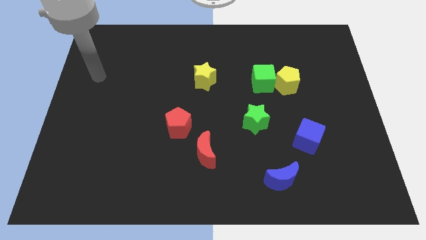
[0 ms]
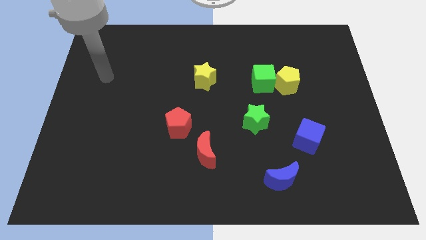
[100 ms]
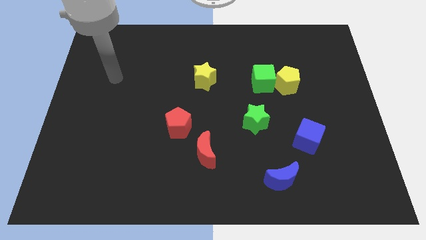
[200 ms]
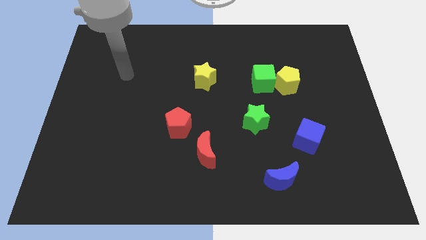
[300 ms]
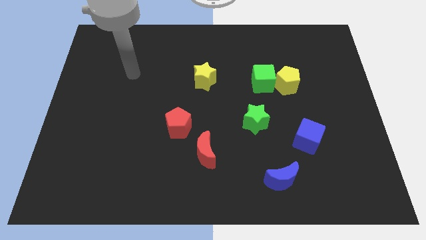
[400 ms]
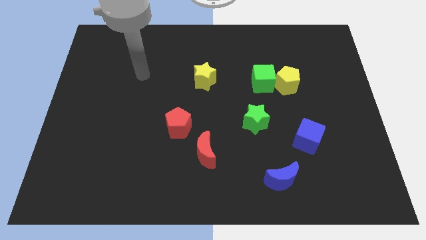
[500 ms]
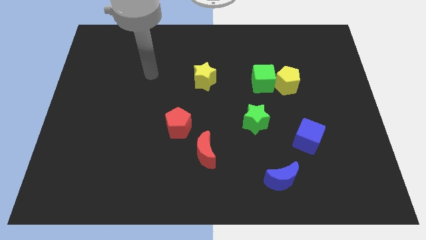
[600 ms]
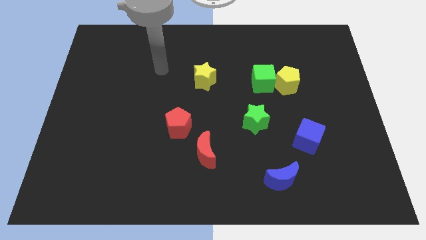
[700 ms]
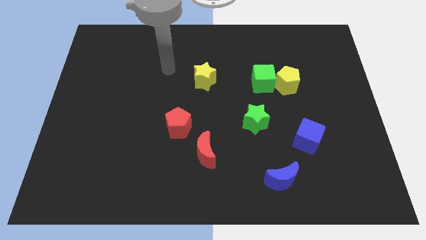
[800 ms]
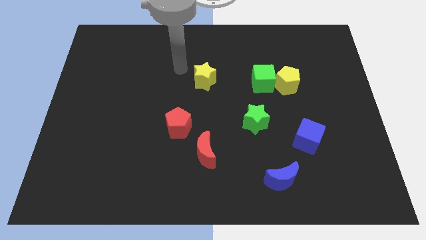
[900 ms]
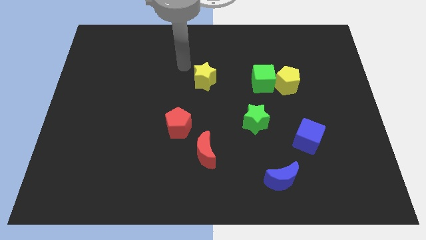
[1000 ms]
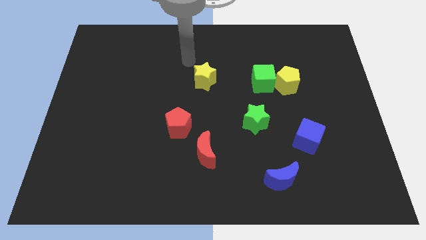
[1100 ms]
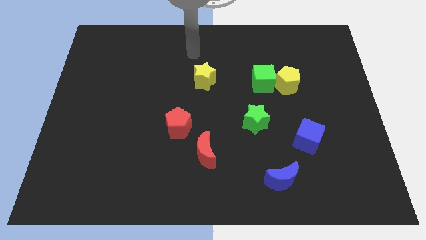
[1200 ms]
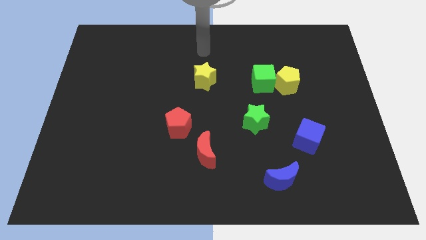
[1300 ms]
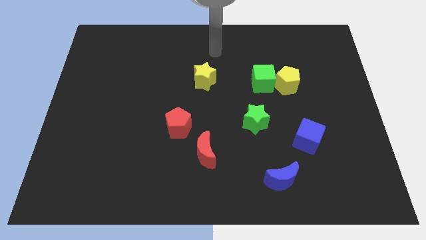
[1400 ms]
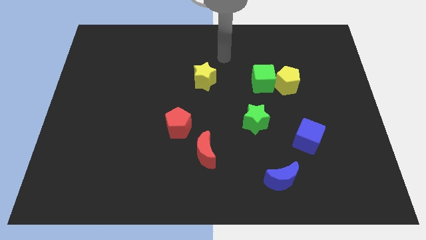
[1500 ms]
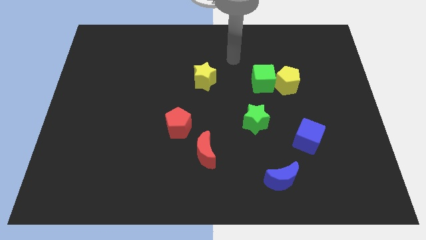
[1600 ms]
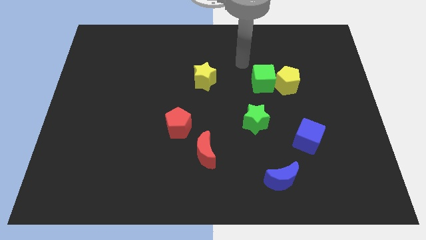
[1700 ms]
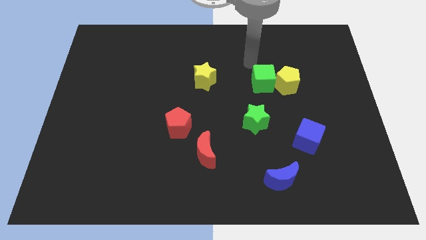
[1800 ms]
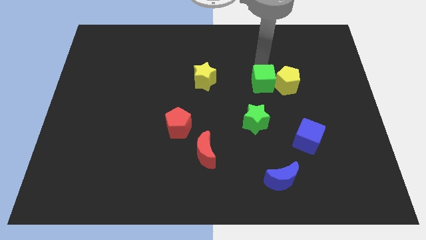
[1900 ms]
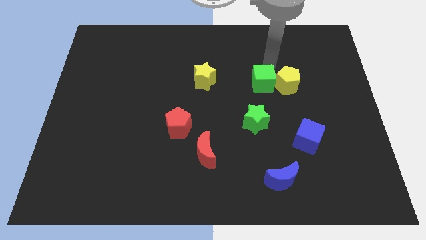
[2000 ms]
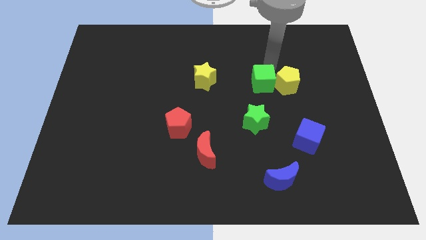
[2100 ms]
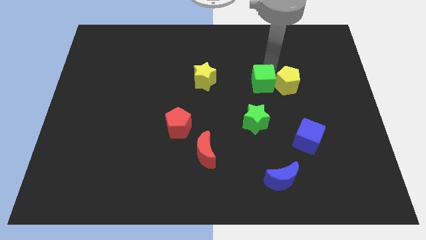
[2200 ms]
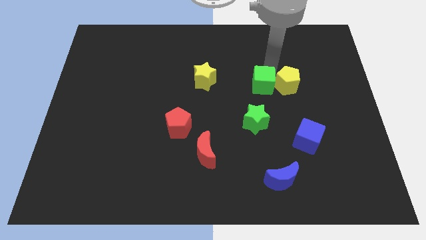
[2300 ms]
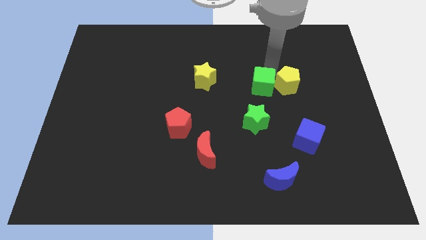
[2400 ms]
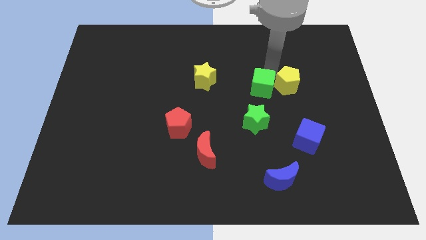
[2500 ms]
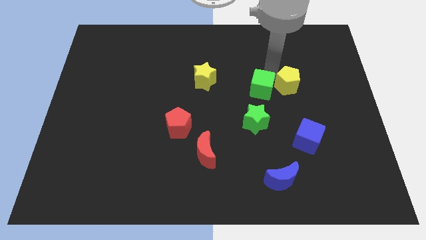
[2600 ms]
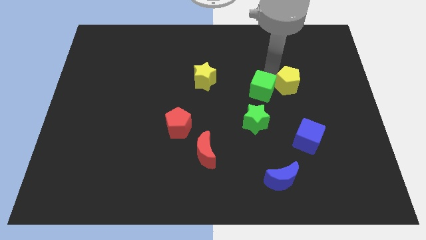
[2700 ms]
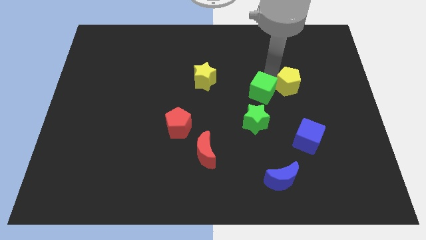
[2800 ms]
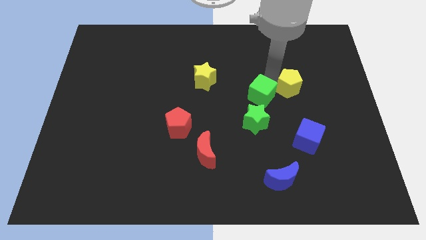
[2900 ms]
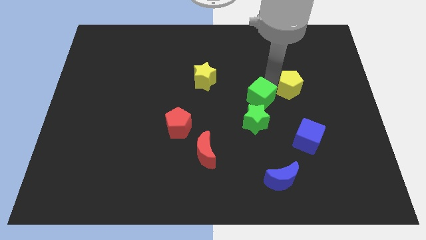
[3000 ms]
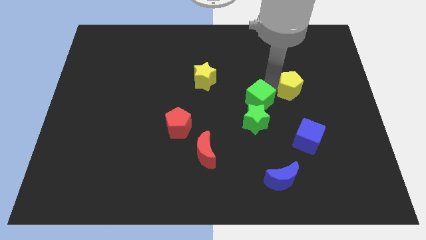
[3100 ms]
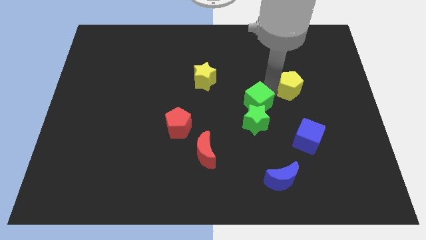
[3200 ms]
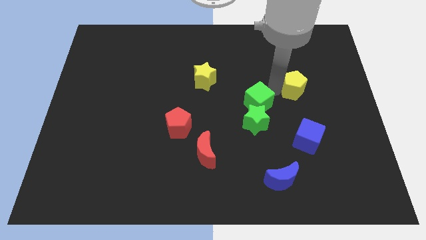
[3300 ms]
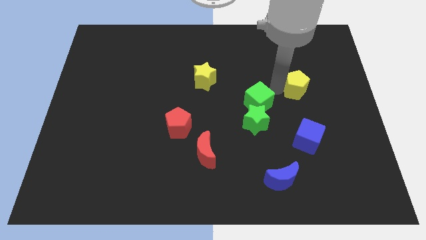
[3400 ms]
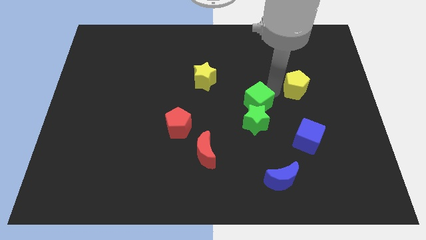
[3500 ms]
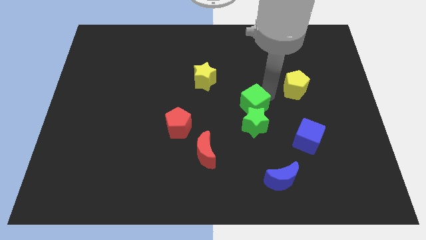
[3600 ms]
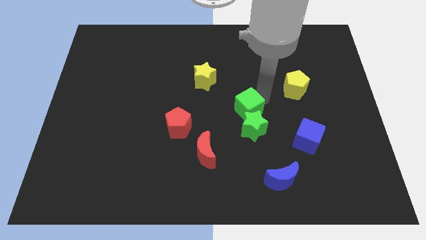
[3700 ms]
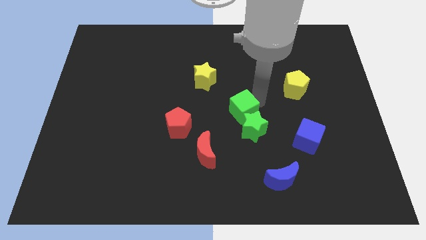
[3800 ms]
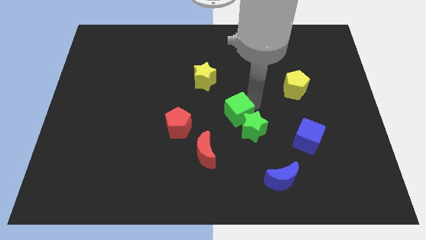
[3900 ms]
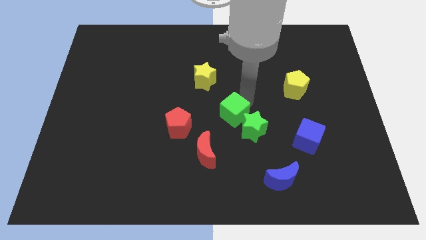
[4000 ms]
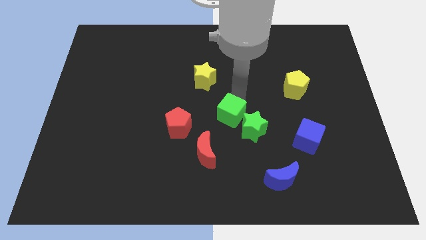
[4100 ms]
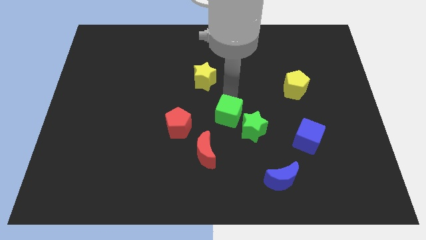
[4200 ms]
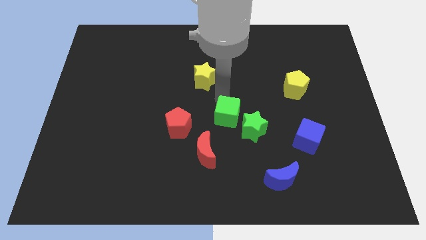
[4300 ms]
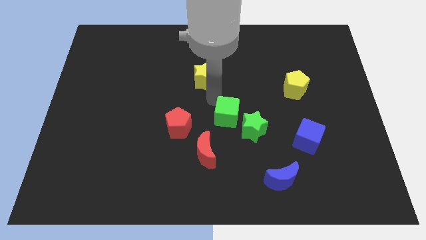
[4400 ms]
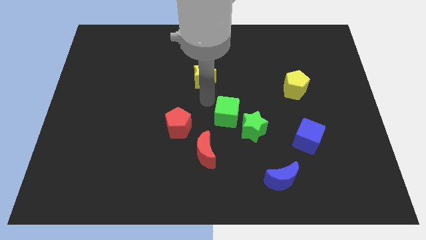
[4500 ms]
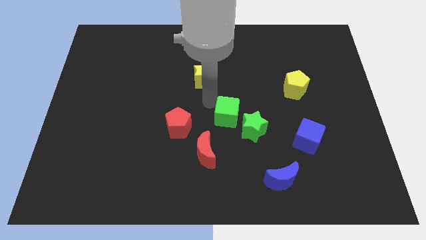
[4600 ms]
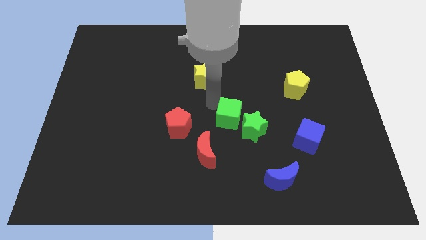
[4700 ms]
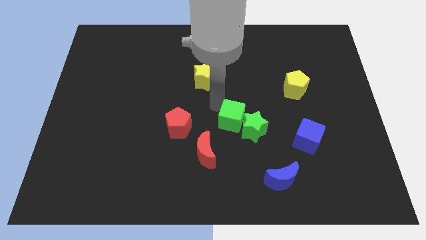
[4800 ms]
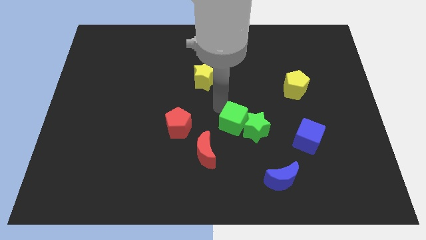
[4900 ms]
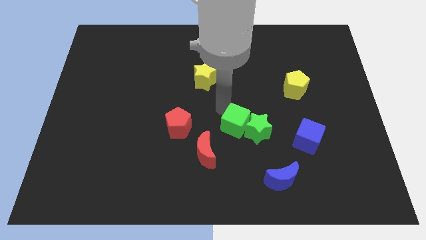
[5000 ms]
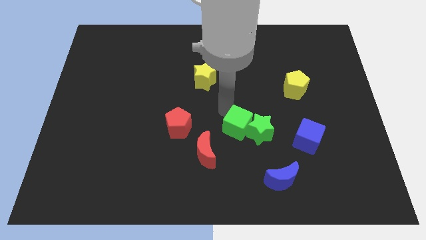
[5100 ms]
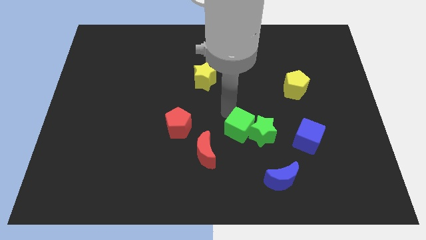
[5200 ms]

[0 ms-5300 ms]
push the green cube to the left of the blue cube

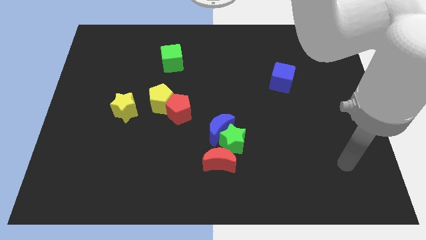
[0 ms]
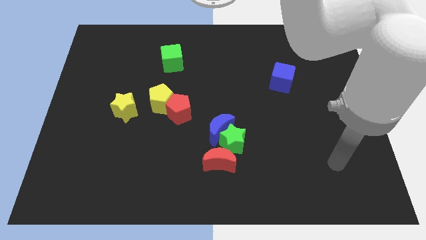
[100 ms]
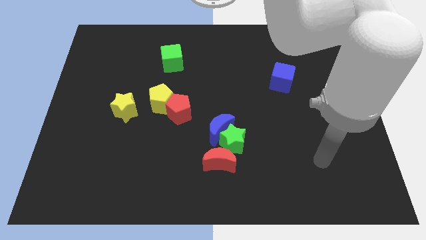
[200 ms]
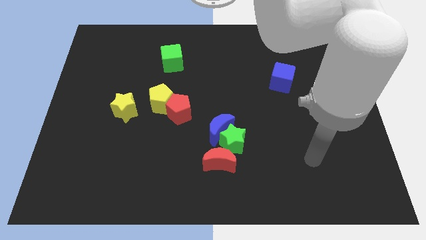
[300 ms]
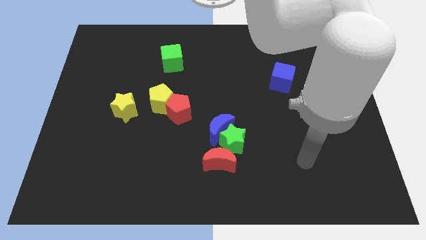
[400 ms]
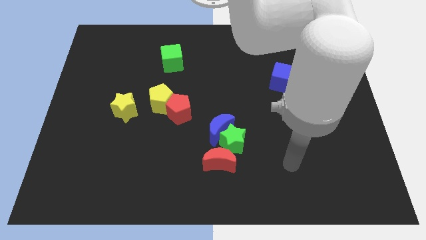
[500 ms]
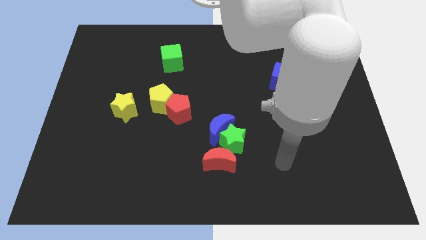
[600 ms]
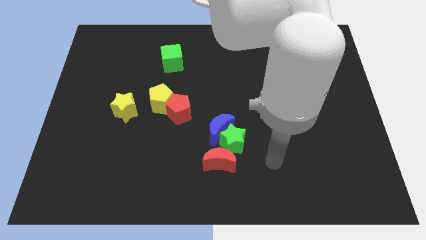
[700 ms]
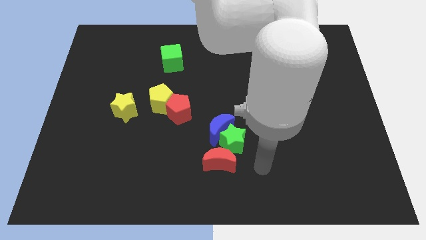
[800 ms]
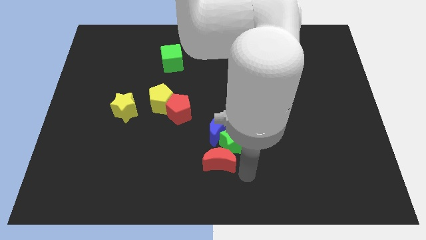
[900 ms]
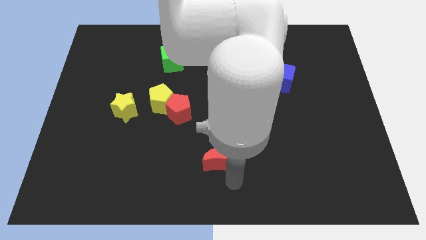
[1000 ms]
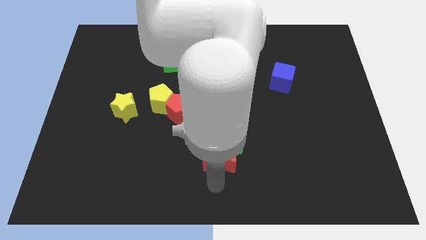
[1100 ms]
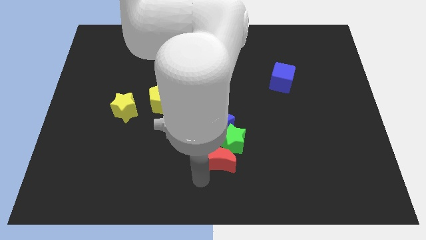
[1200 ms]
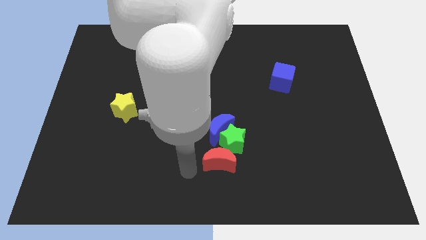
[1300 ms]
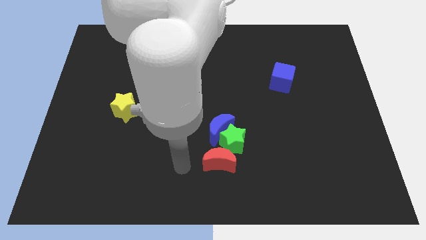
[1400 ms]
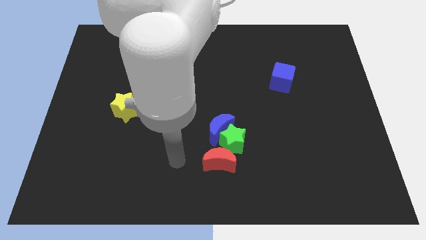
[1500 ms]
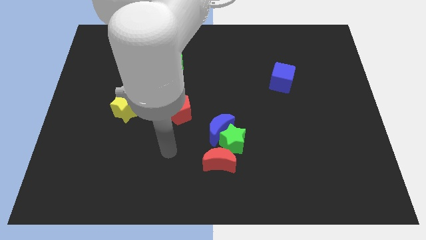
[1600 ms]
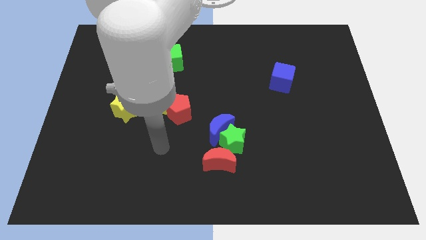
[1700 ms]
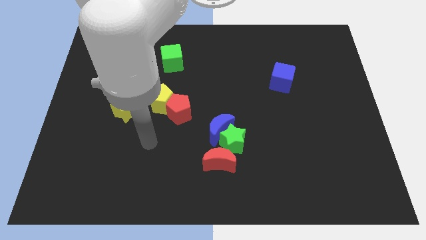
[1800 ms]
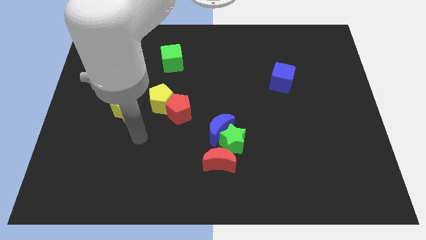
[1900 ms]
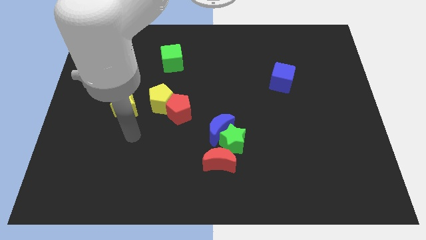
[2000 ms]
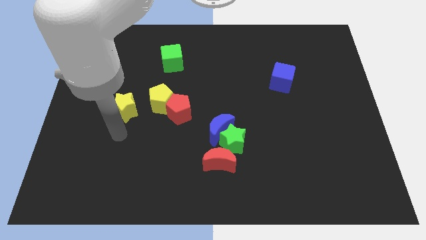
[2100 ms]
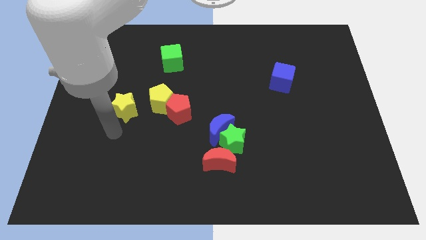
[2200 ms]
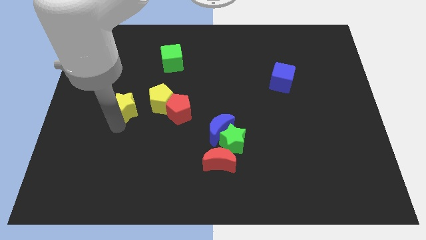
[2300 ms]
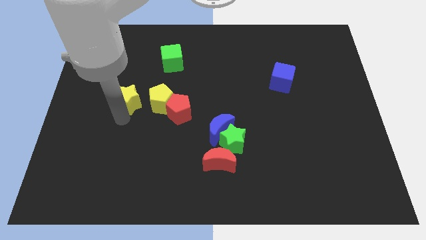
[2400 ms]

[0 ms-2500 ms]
put the yellow star to the top left side of the yellow pentagon

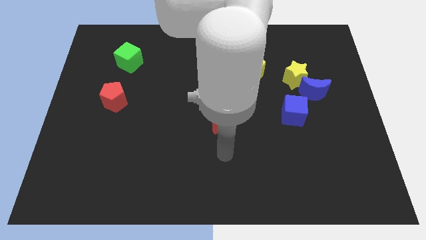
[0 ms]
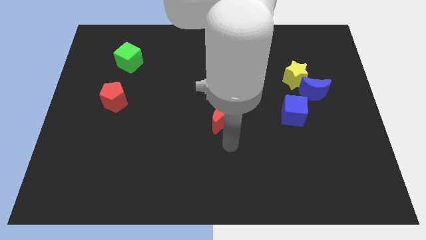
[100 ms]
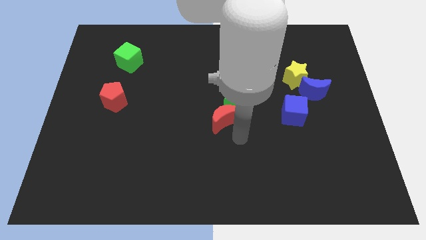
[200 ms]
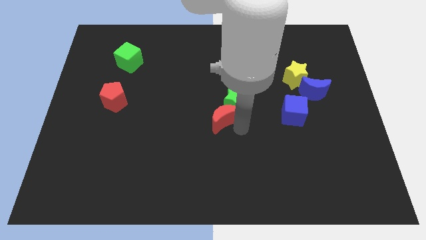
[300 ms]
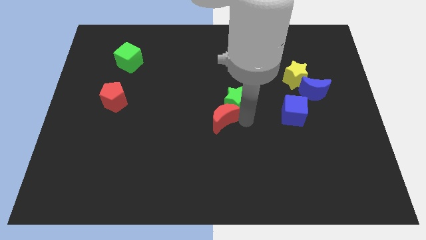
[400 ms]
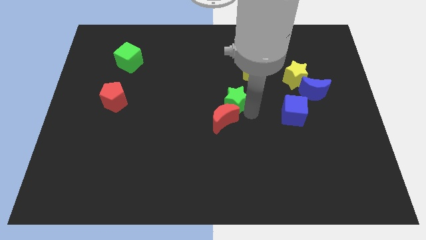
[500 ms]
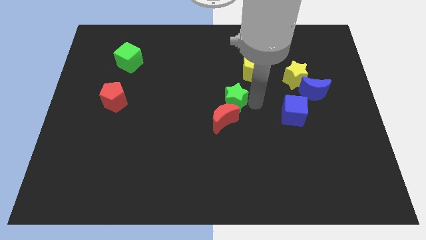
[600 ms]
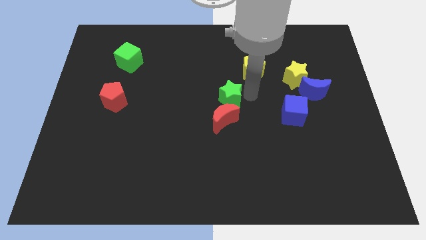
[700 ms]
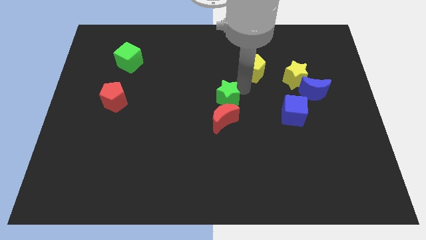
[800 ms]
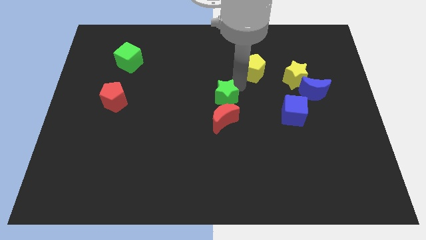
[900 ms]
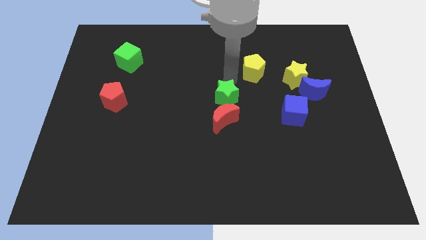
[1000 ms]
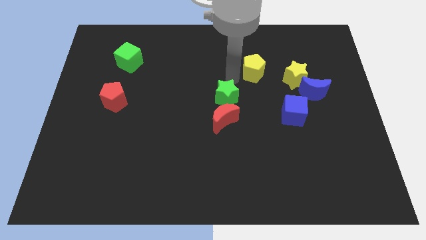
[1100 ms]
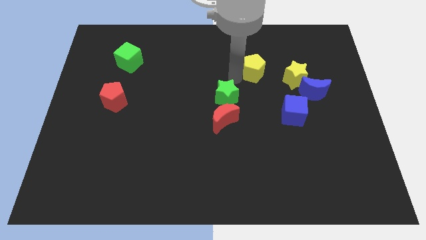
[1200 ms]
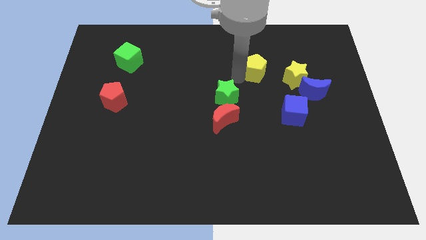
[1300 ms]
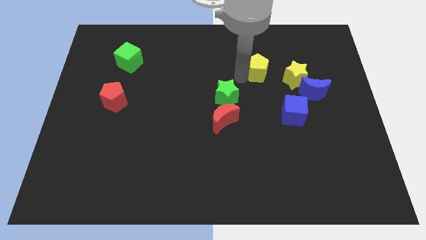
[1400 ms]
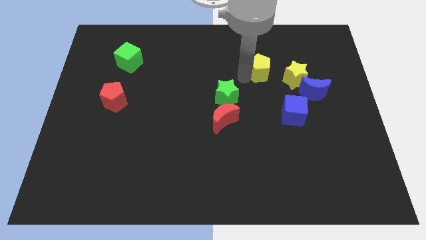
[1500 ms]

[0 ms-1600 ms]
push the yellow pentagon to the top left side of the yellow star
